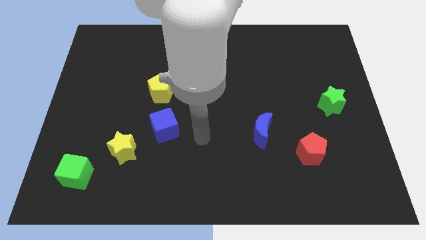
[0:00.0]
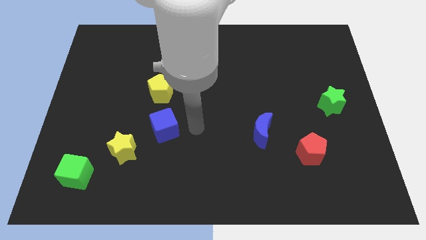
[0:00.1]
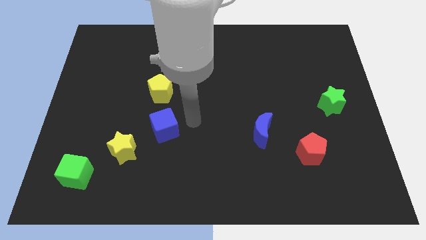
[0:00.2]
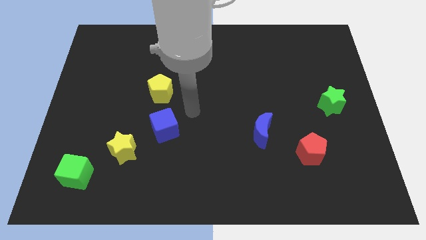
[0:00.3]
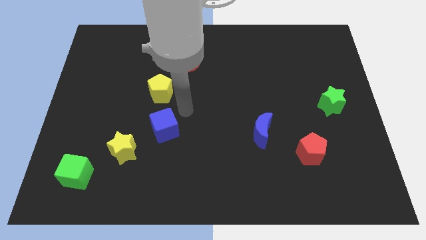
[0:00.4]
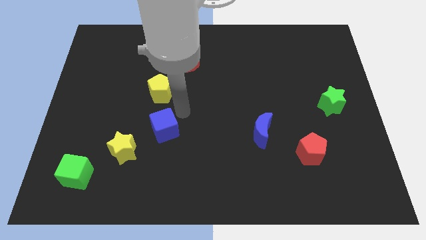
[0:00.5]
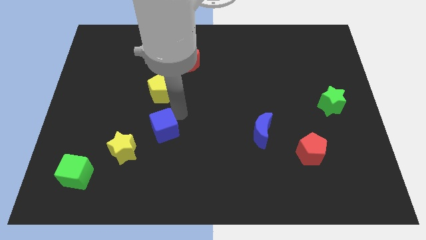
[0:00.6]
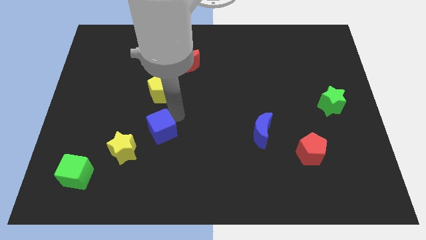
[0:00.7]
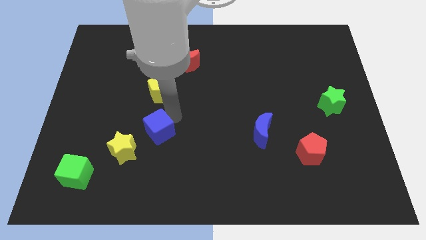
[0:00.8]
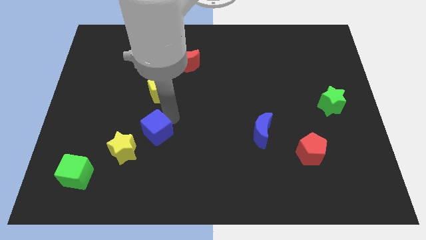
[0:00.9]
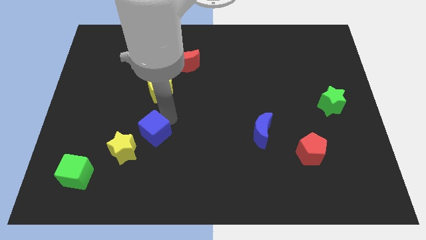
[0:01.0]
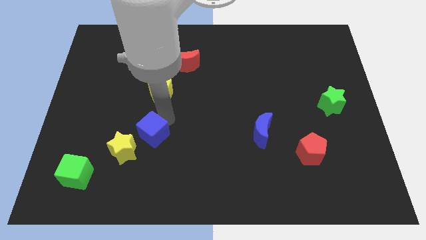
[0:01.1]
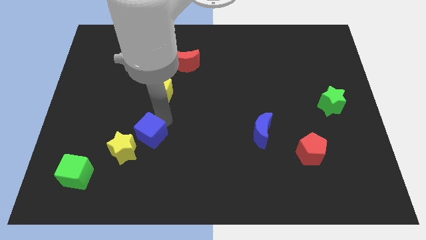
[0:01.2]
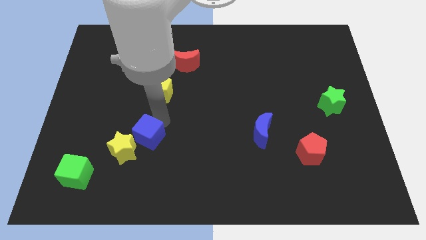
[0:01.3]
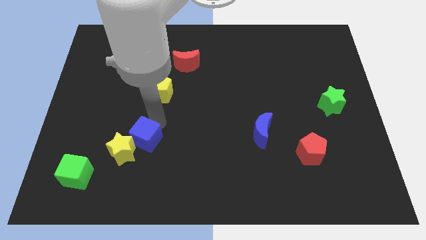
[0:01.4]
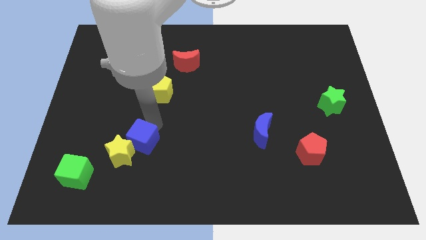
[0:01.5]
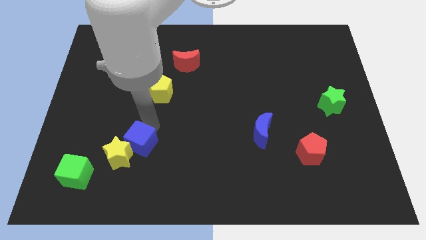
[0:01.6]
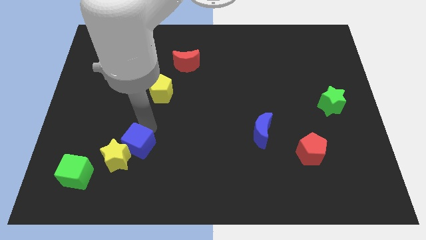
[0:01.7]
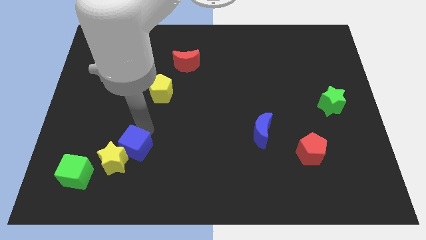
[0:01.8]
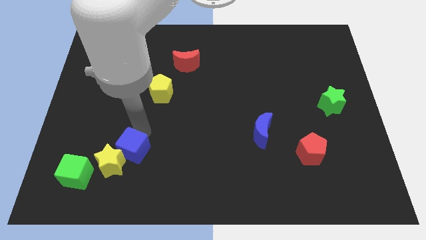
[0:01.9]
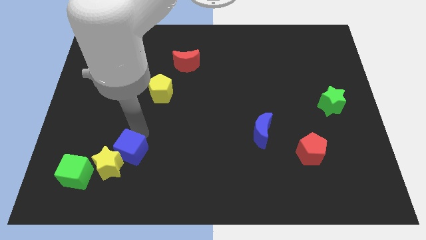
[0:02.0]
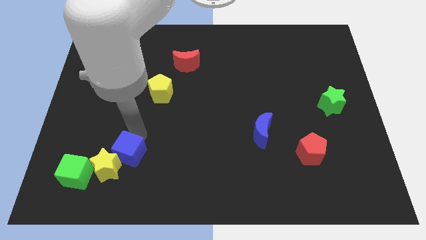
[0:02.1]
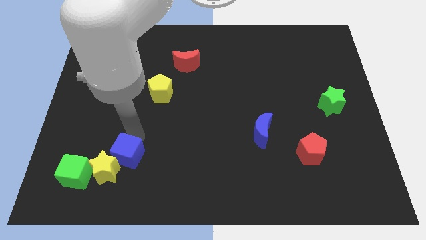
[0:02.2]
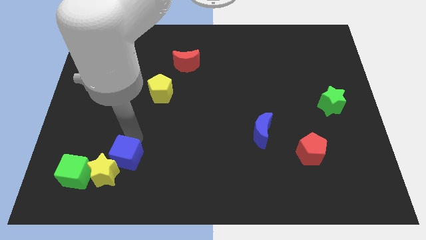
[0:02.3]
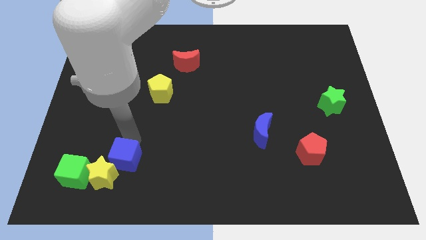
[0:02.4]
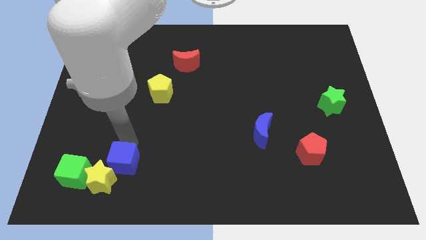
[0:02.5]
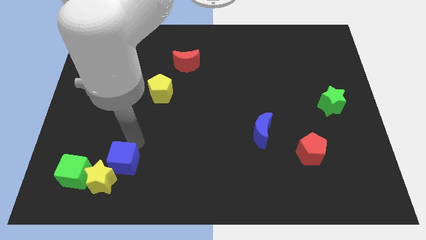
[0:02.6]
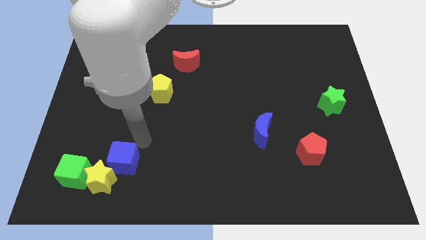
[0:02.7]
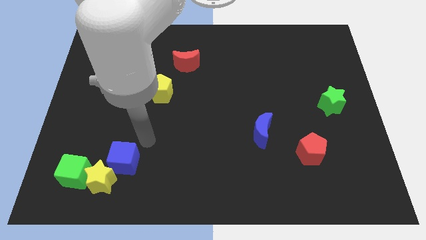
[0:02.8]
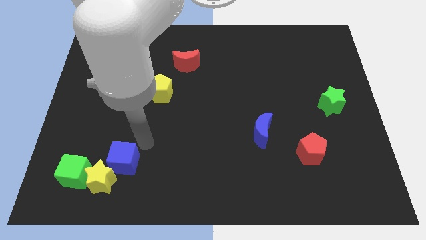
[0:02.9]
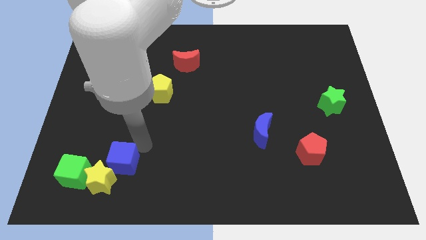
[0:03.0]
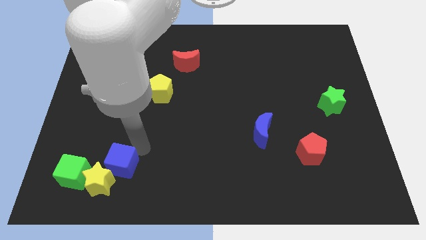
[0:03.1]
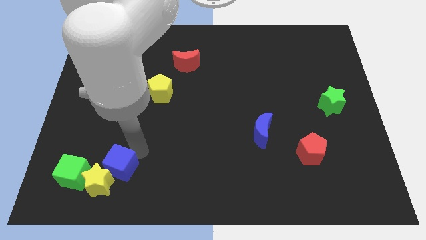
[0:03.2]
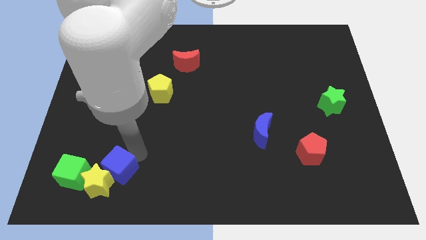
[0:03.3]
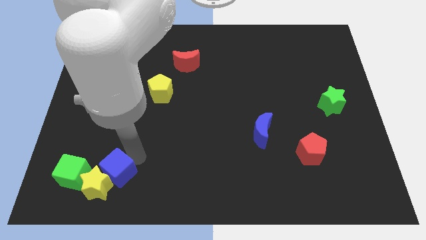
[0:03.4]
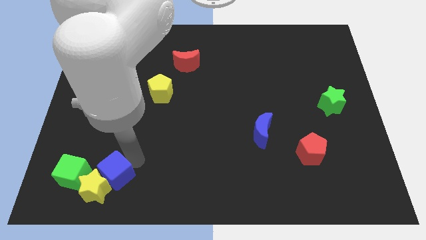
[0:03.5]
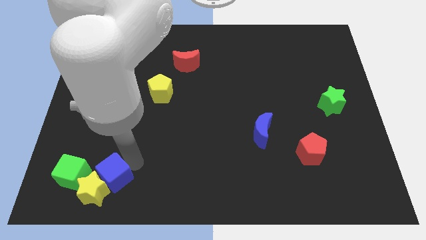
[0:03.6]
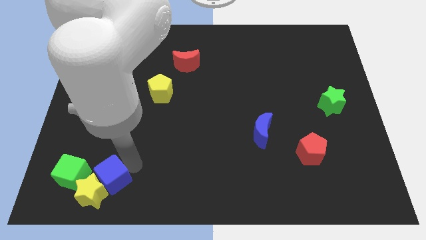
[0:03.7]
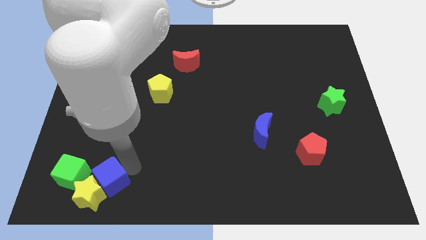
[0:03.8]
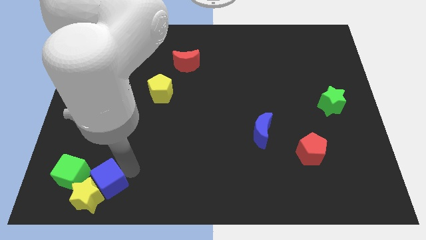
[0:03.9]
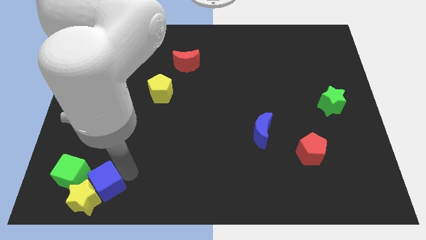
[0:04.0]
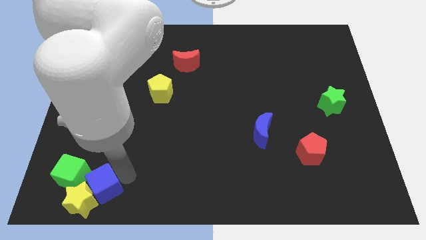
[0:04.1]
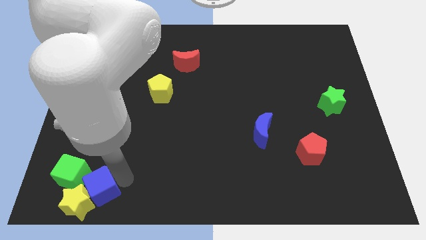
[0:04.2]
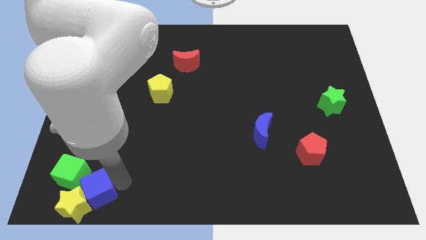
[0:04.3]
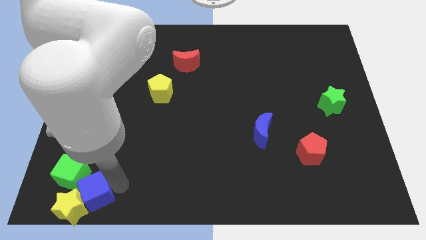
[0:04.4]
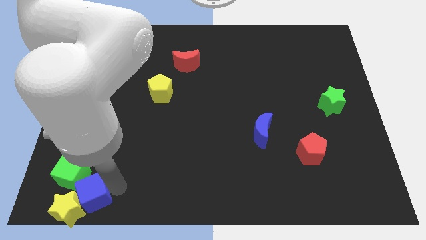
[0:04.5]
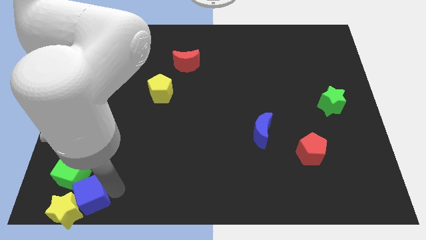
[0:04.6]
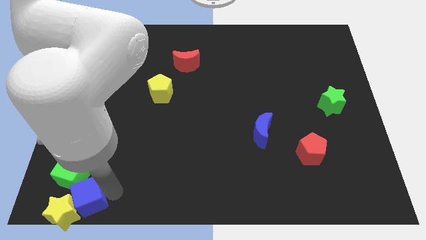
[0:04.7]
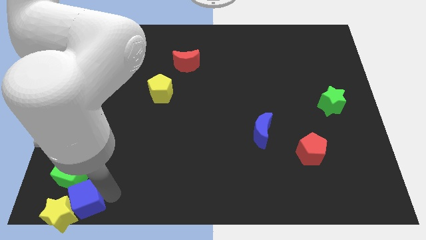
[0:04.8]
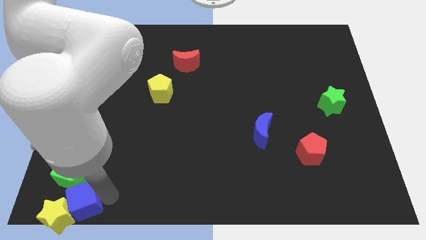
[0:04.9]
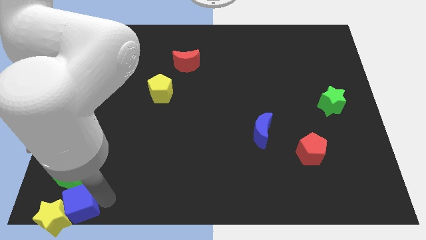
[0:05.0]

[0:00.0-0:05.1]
slide the blue cube to the lower left corner

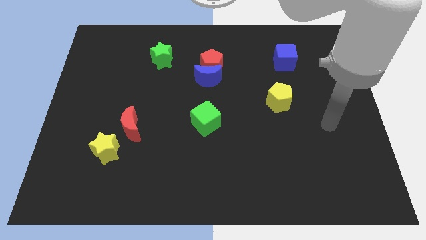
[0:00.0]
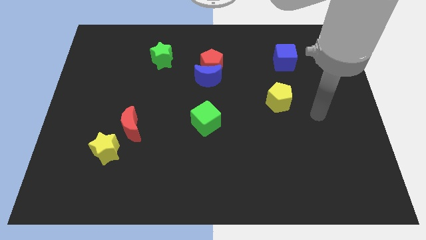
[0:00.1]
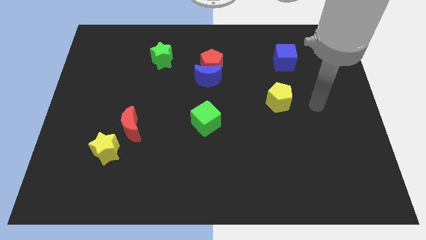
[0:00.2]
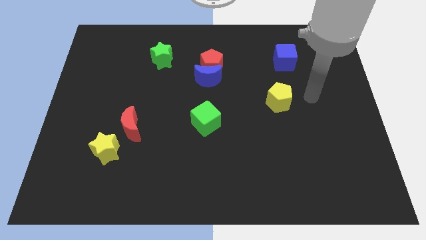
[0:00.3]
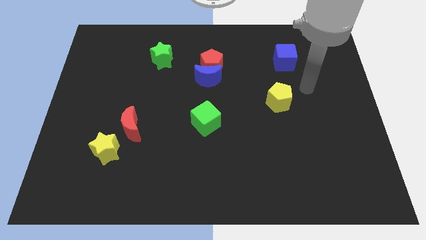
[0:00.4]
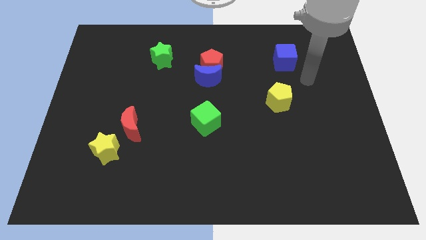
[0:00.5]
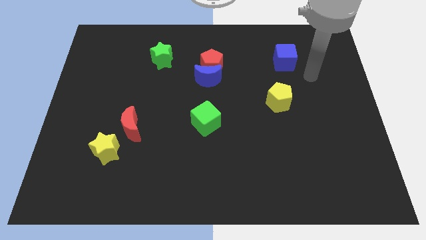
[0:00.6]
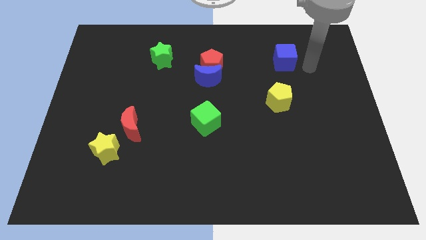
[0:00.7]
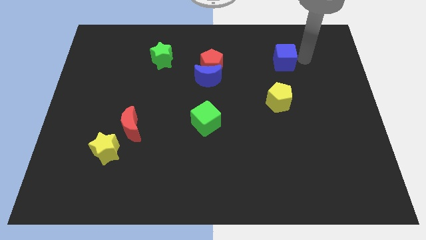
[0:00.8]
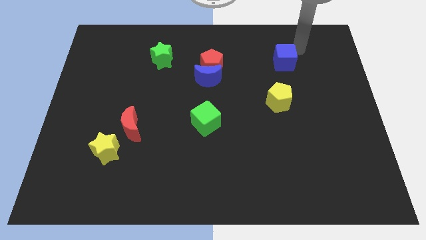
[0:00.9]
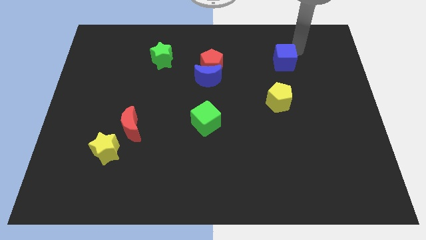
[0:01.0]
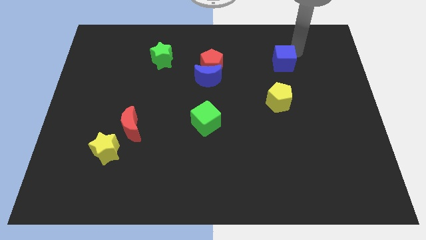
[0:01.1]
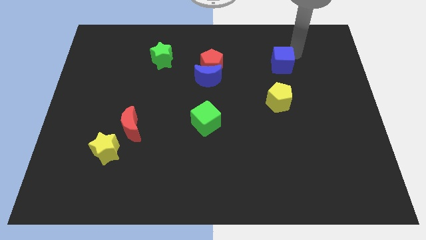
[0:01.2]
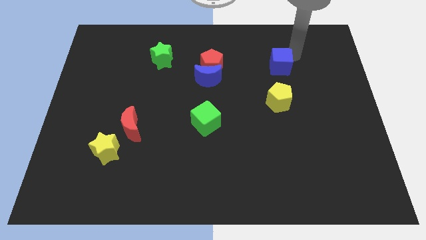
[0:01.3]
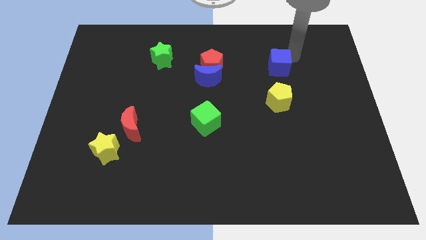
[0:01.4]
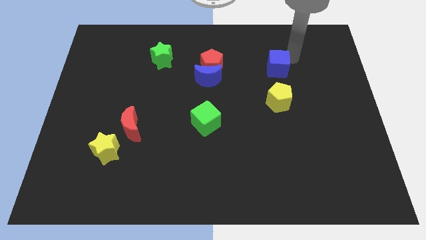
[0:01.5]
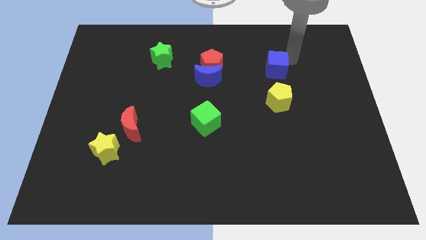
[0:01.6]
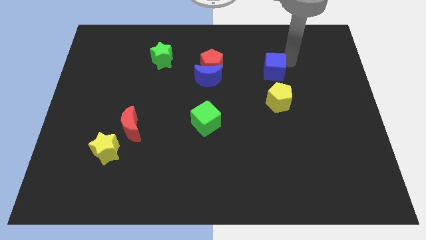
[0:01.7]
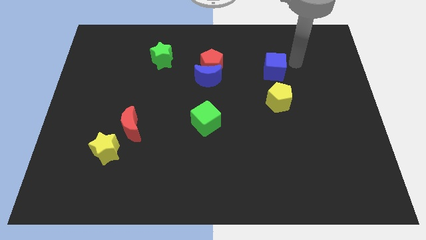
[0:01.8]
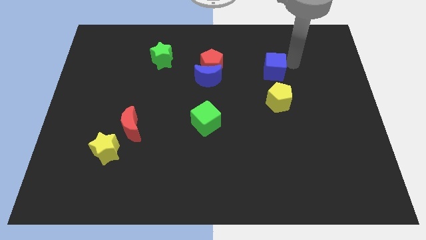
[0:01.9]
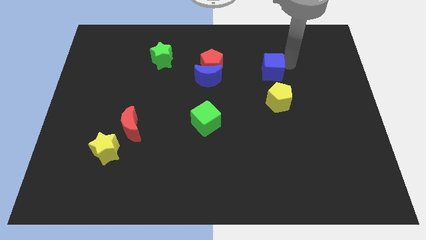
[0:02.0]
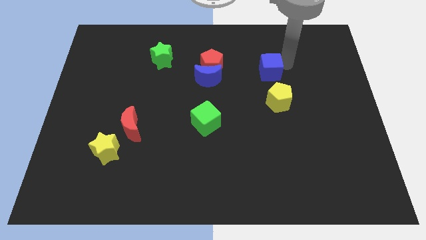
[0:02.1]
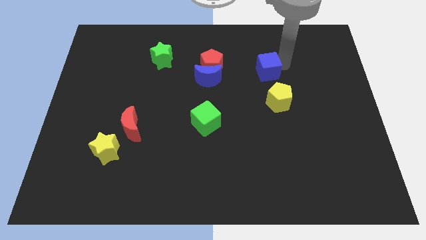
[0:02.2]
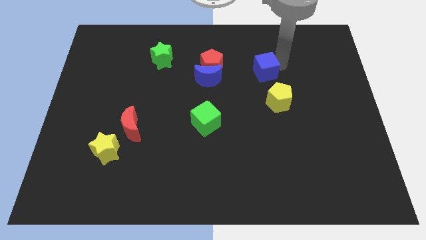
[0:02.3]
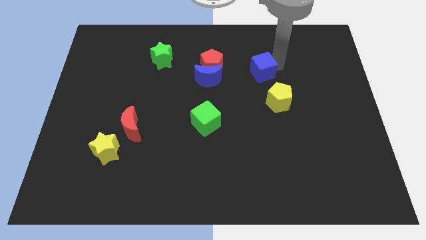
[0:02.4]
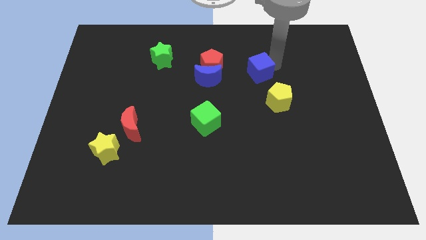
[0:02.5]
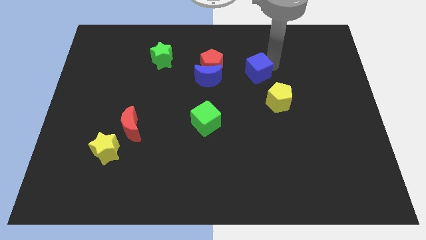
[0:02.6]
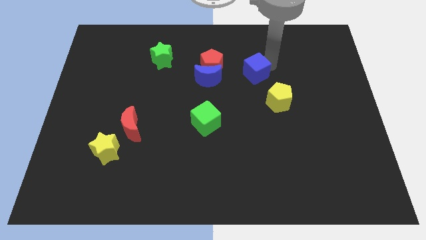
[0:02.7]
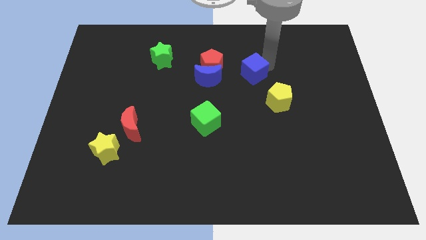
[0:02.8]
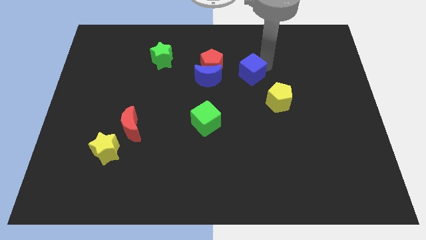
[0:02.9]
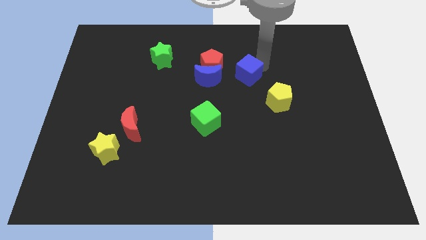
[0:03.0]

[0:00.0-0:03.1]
put the blue cube to the middle of the board
